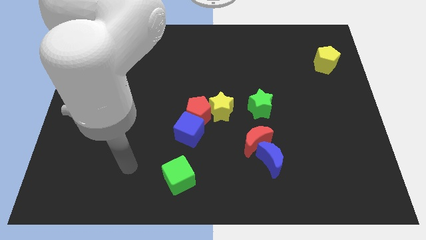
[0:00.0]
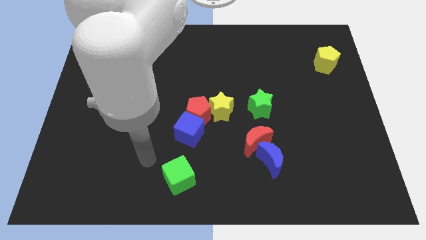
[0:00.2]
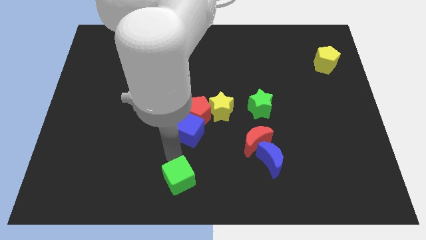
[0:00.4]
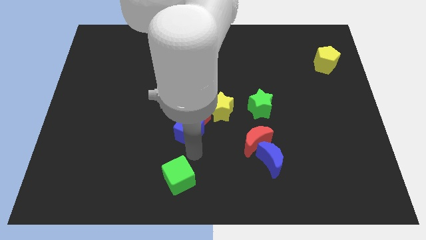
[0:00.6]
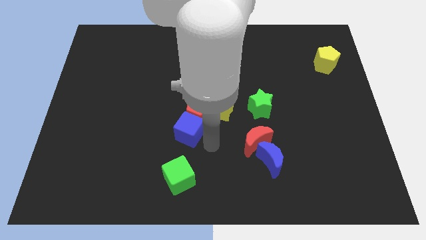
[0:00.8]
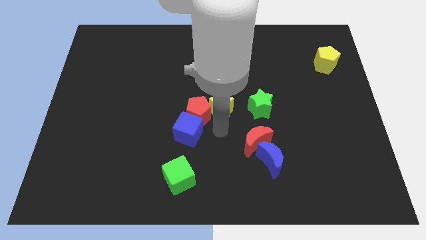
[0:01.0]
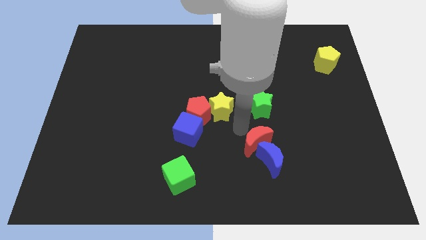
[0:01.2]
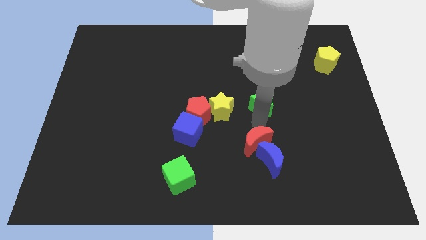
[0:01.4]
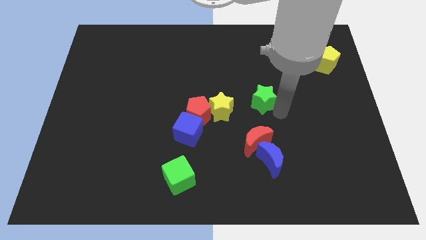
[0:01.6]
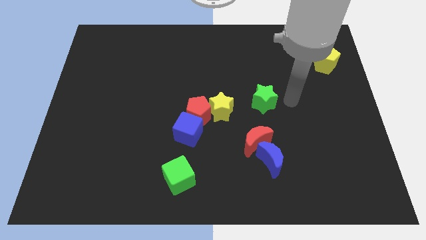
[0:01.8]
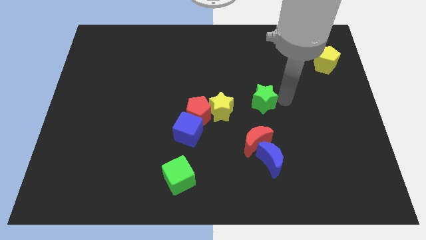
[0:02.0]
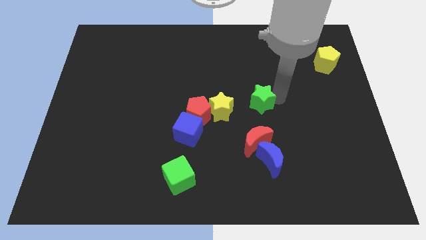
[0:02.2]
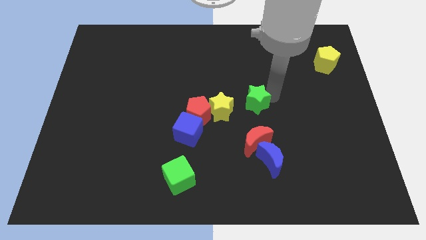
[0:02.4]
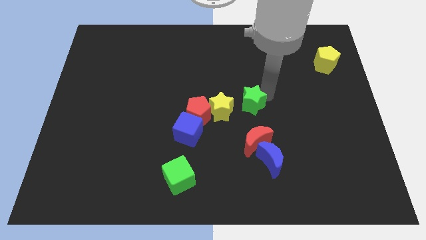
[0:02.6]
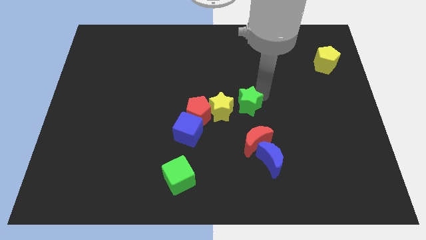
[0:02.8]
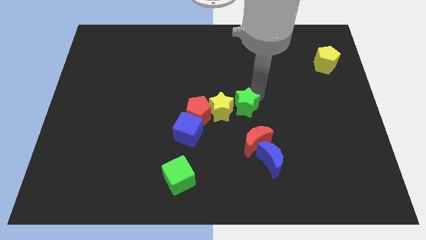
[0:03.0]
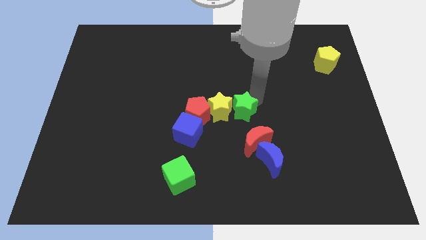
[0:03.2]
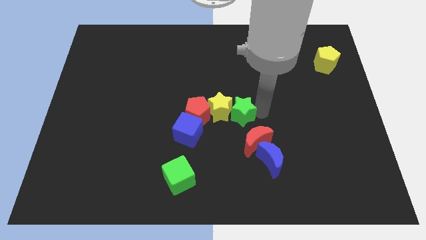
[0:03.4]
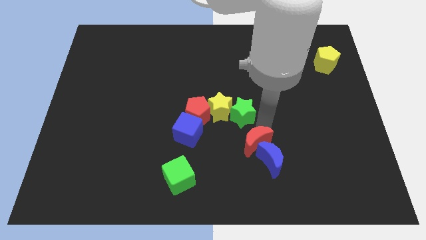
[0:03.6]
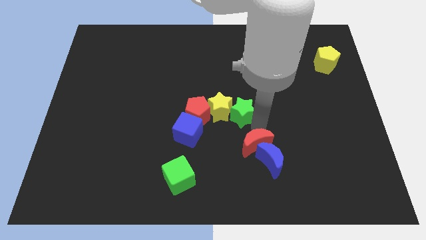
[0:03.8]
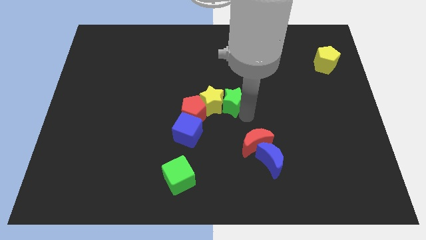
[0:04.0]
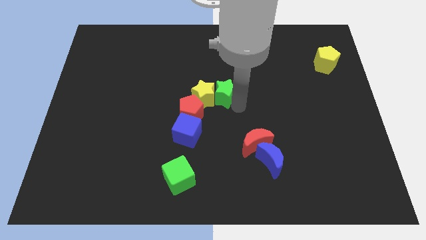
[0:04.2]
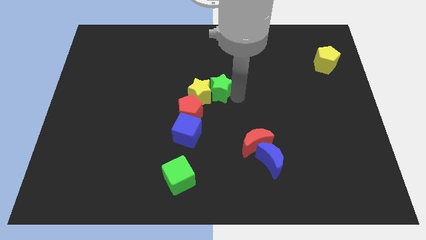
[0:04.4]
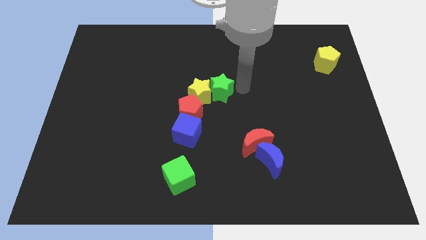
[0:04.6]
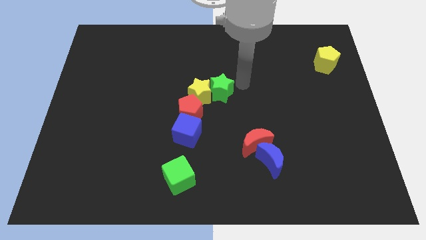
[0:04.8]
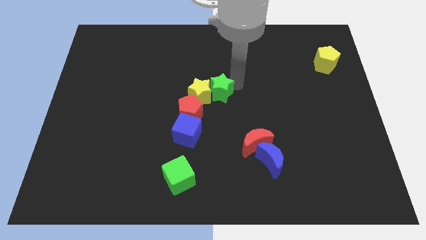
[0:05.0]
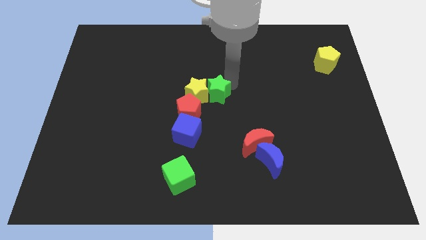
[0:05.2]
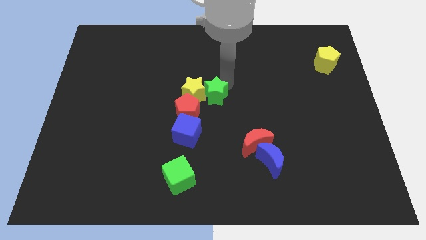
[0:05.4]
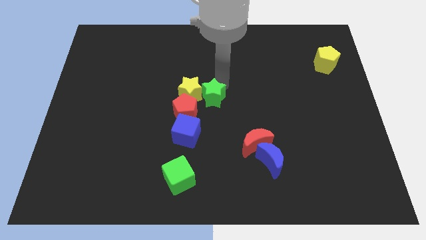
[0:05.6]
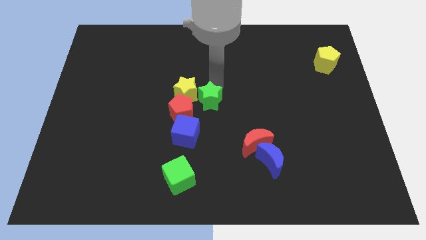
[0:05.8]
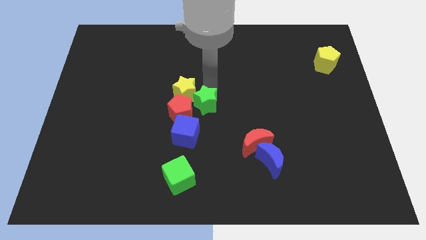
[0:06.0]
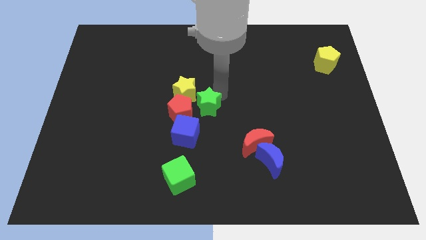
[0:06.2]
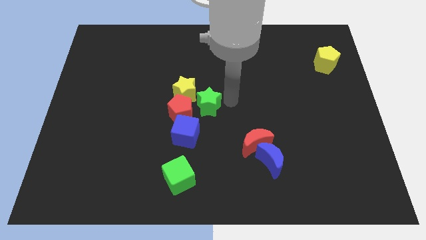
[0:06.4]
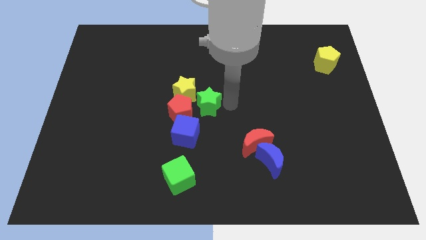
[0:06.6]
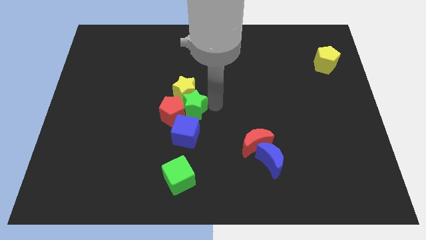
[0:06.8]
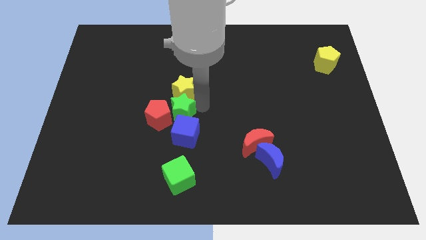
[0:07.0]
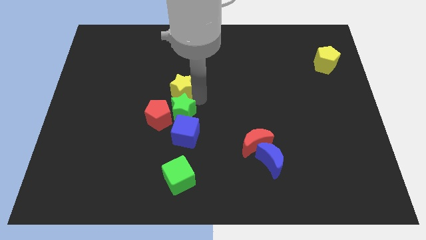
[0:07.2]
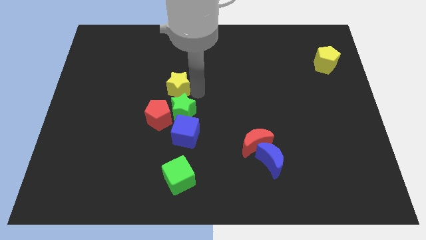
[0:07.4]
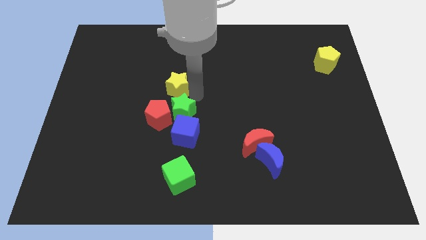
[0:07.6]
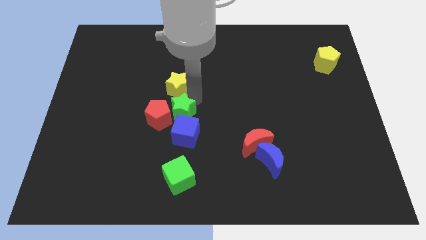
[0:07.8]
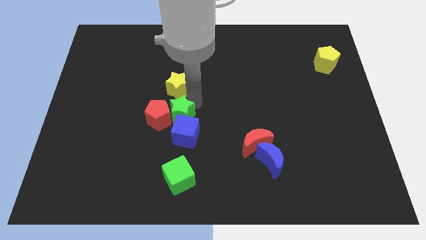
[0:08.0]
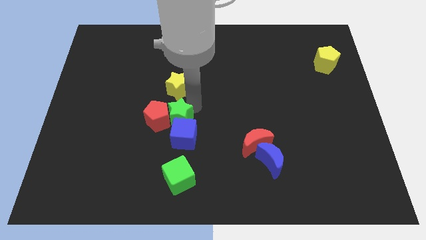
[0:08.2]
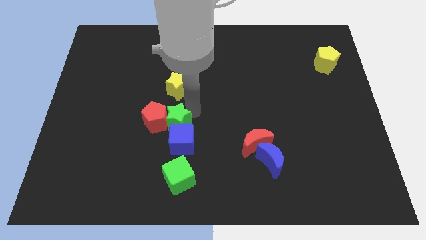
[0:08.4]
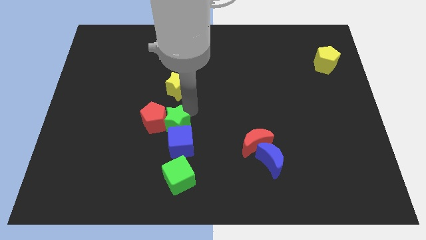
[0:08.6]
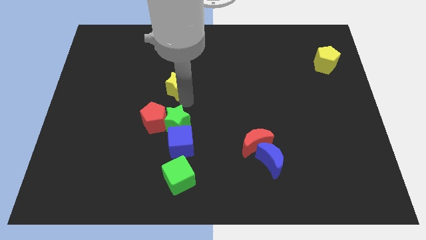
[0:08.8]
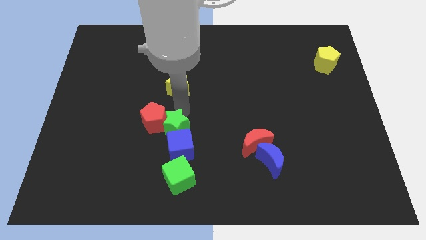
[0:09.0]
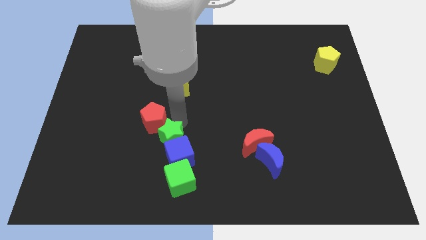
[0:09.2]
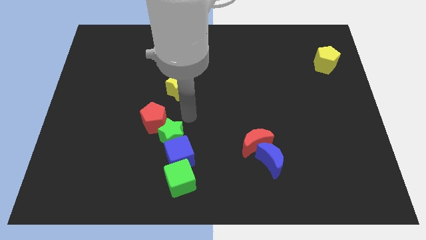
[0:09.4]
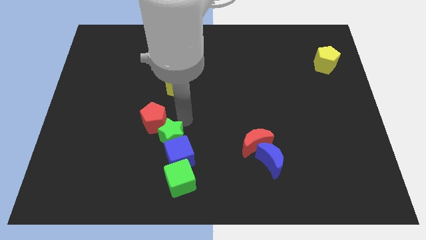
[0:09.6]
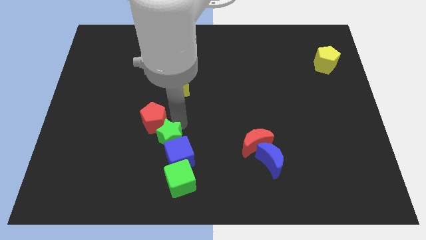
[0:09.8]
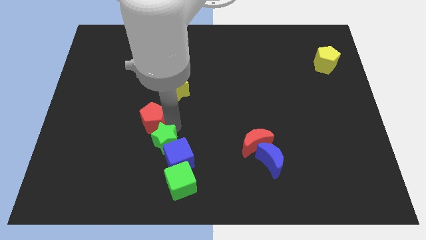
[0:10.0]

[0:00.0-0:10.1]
put the green star to the top left of the green cube

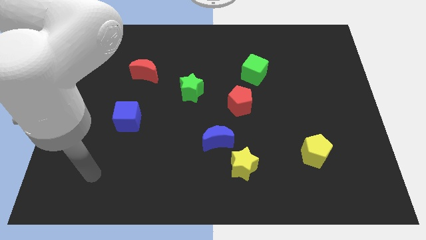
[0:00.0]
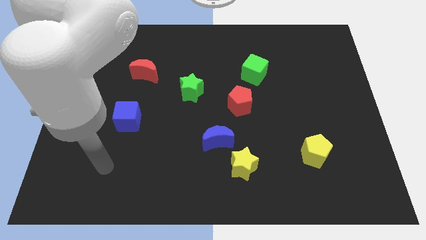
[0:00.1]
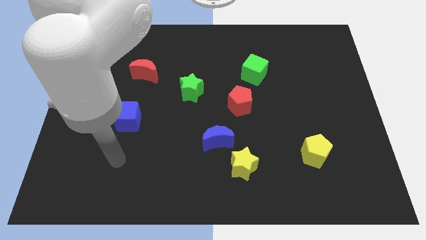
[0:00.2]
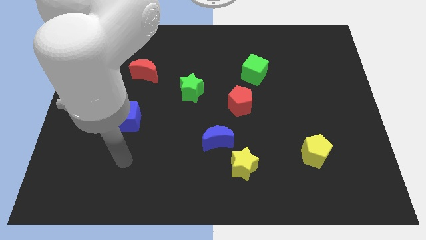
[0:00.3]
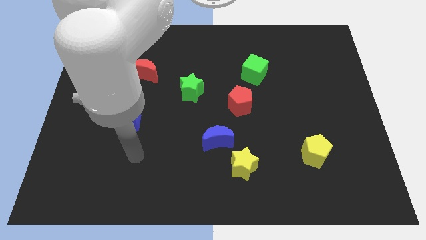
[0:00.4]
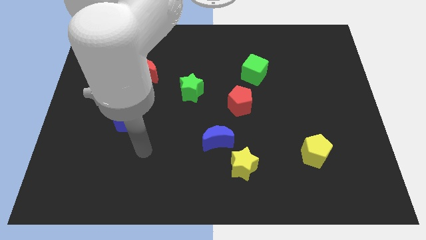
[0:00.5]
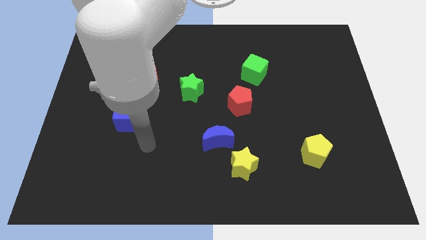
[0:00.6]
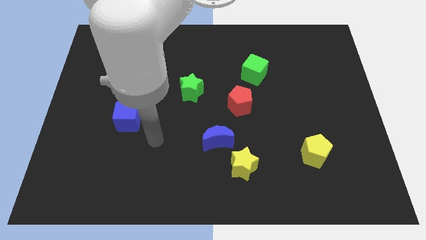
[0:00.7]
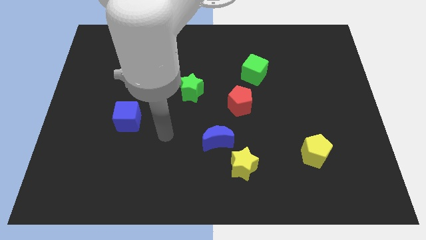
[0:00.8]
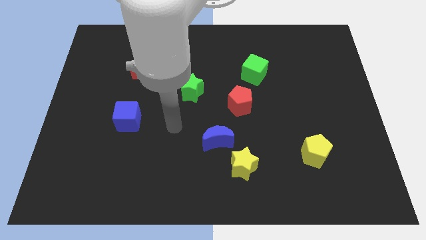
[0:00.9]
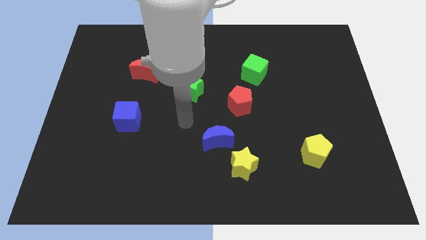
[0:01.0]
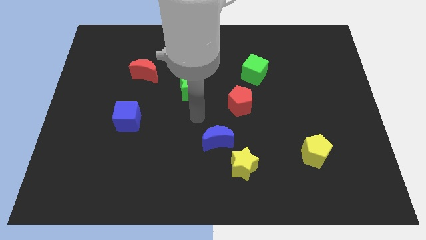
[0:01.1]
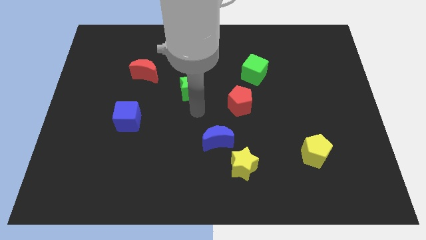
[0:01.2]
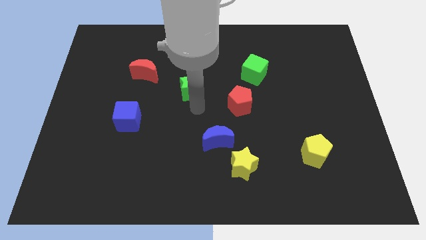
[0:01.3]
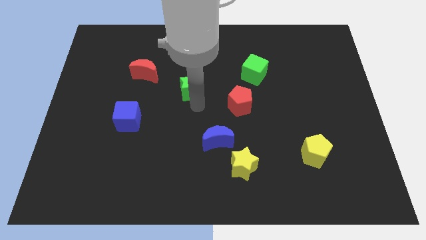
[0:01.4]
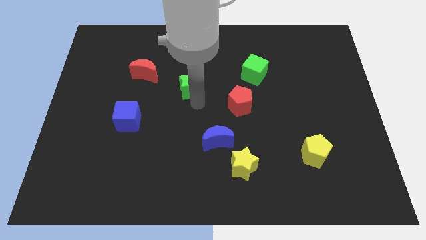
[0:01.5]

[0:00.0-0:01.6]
put the green star just right of the red moon
